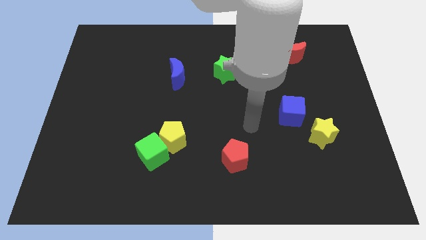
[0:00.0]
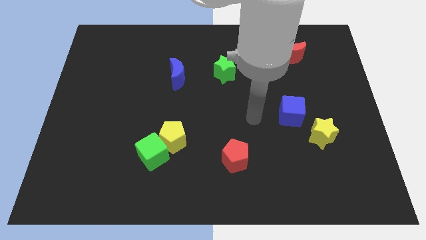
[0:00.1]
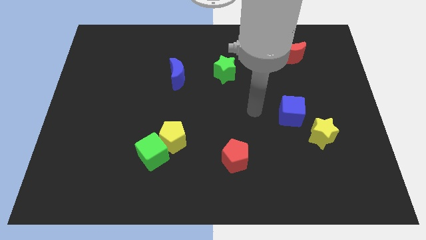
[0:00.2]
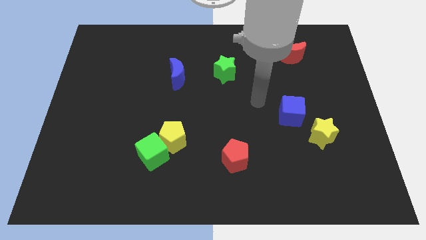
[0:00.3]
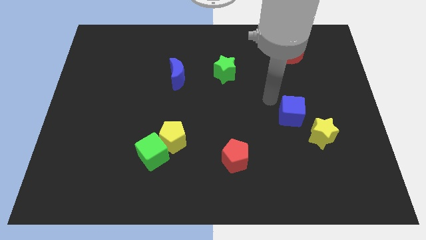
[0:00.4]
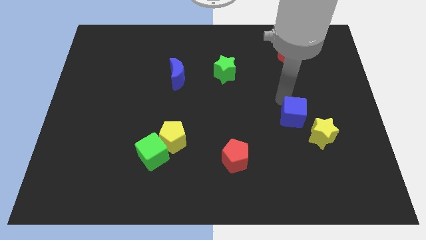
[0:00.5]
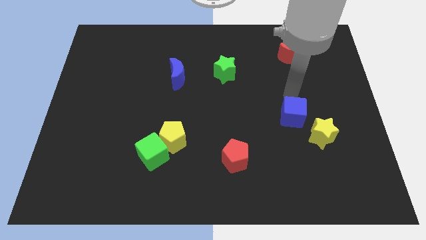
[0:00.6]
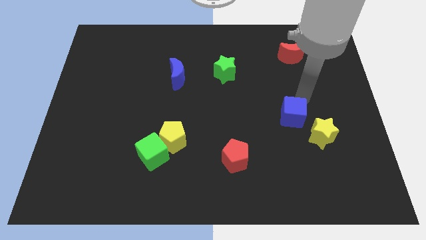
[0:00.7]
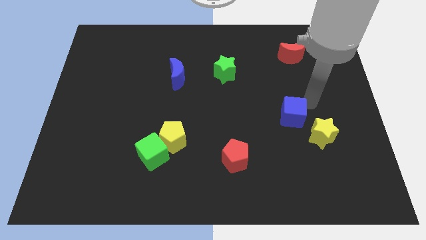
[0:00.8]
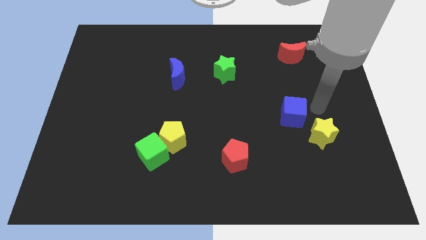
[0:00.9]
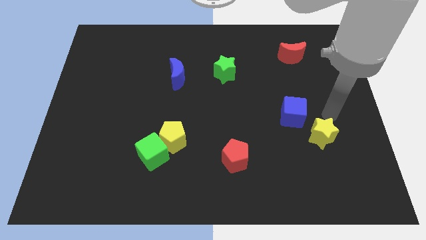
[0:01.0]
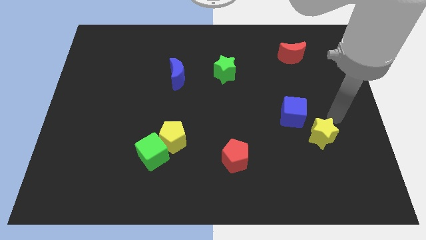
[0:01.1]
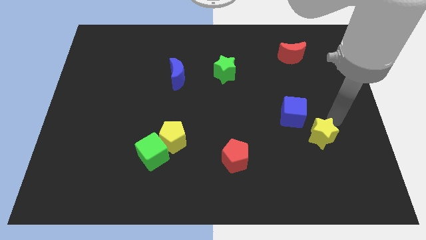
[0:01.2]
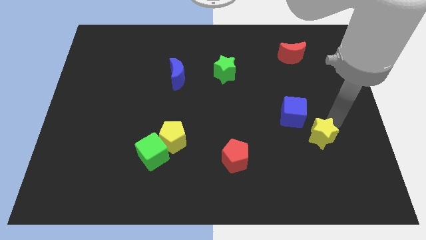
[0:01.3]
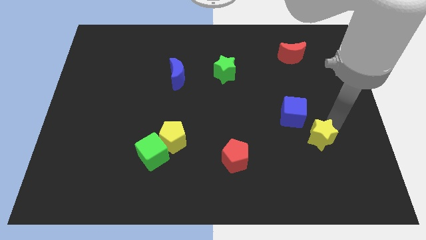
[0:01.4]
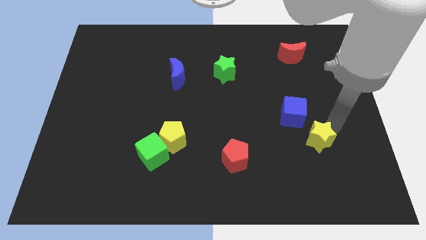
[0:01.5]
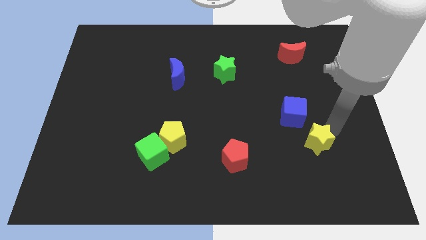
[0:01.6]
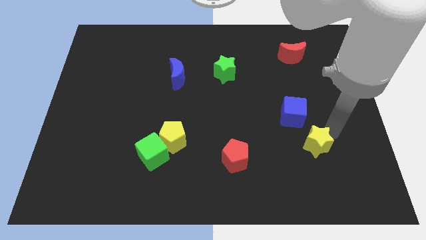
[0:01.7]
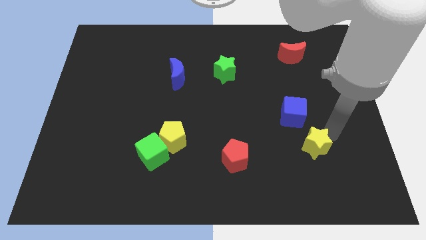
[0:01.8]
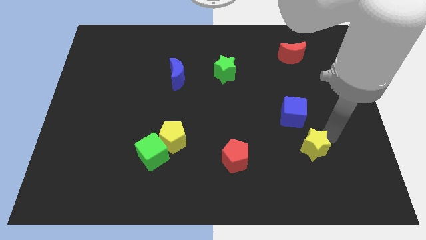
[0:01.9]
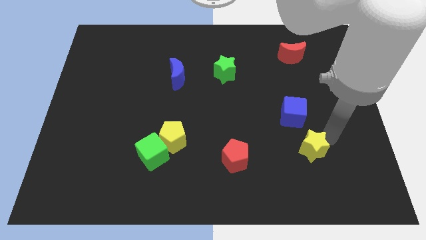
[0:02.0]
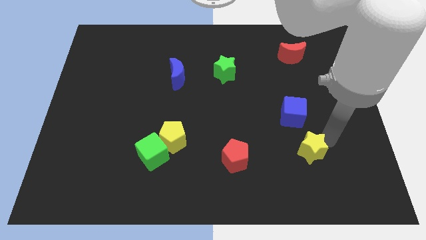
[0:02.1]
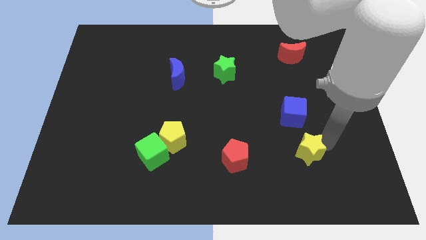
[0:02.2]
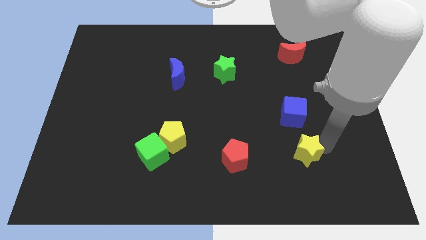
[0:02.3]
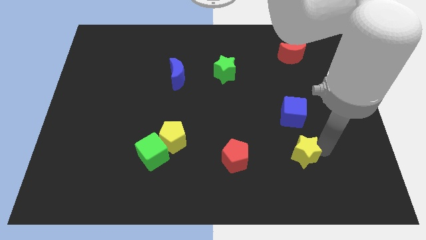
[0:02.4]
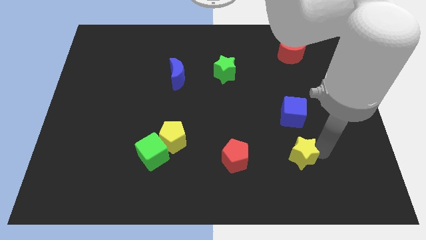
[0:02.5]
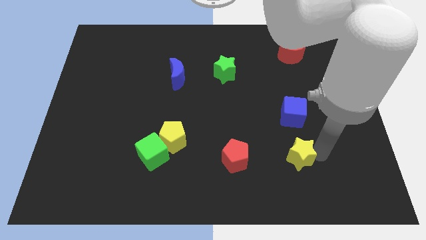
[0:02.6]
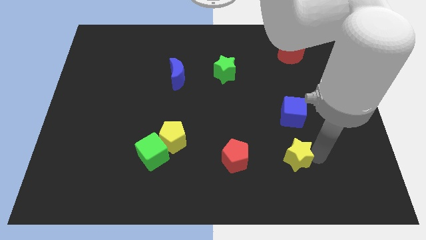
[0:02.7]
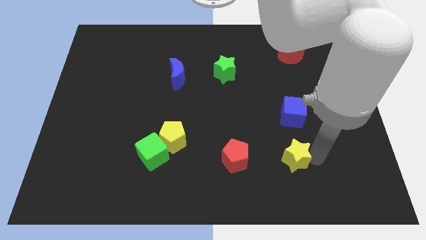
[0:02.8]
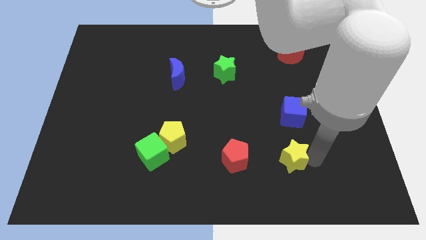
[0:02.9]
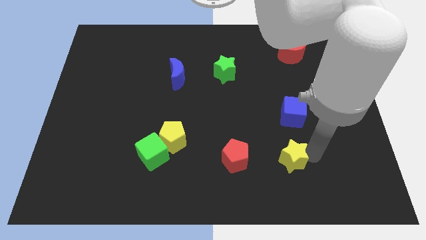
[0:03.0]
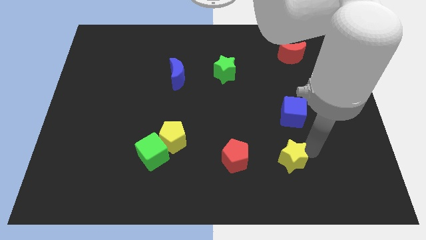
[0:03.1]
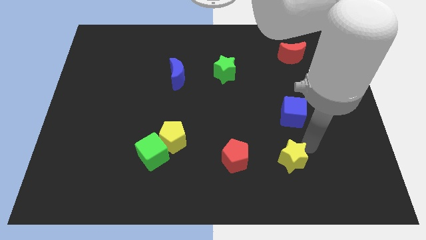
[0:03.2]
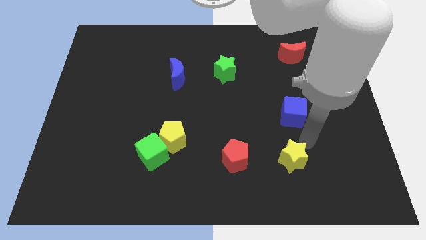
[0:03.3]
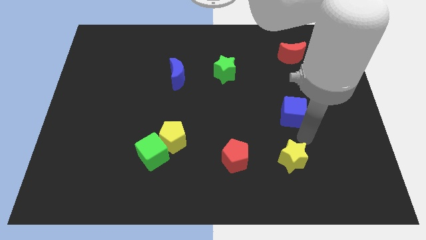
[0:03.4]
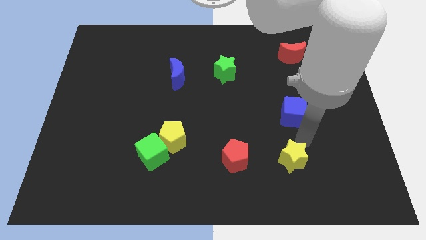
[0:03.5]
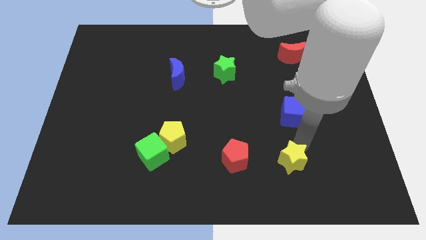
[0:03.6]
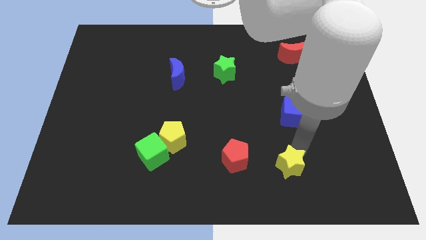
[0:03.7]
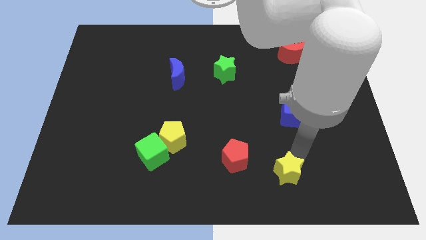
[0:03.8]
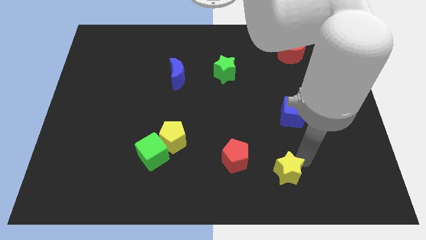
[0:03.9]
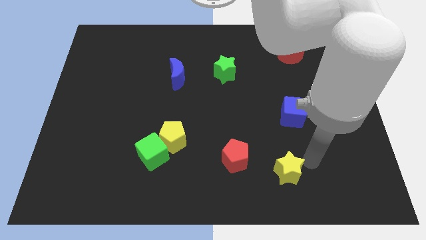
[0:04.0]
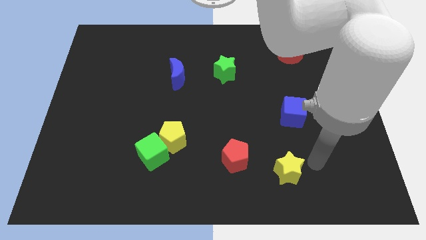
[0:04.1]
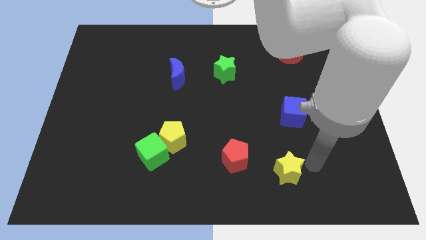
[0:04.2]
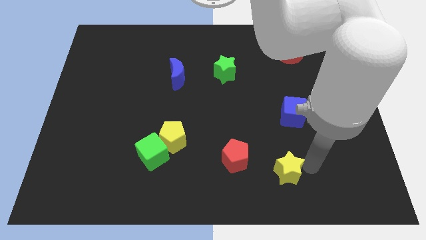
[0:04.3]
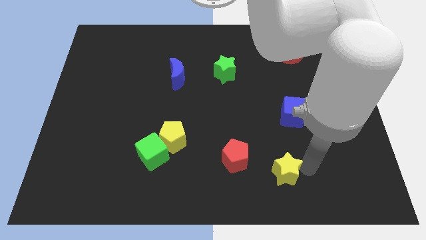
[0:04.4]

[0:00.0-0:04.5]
slide the yellow star to the bottom right side of the red pentagon

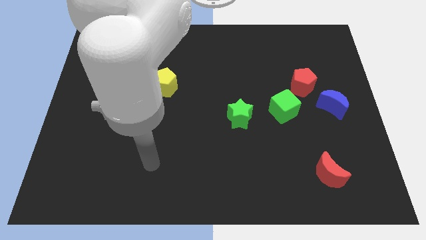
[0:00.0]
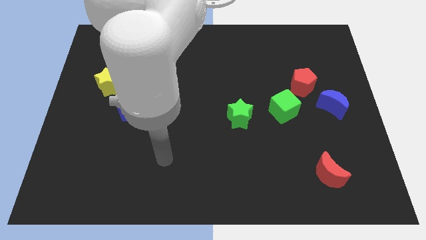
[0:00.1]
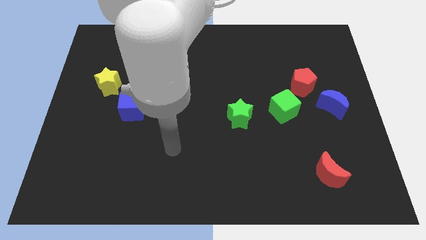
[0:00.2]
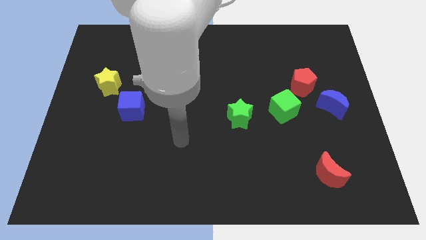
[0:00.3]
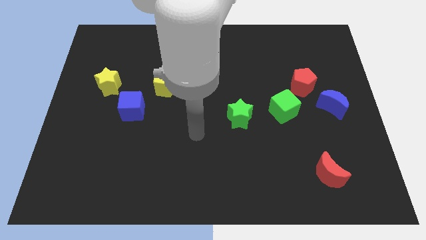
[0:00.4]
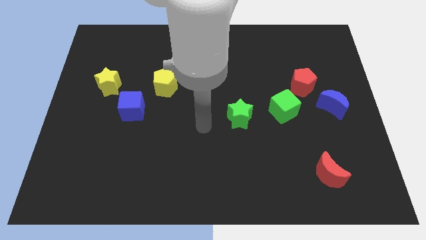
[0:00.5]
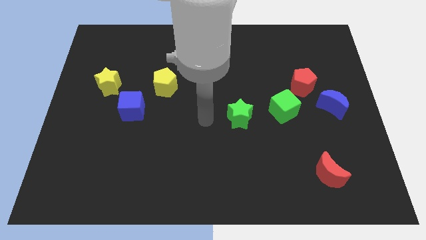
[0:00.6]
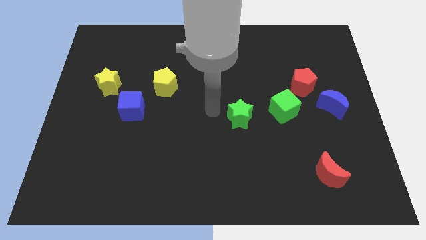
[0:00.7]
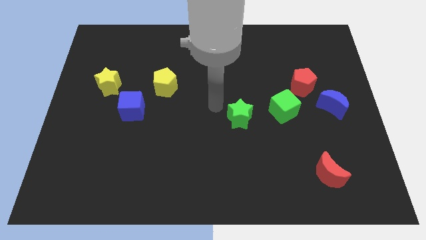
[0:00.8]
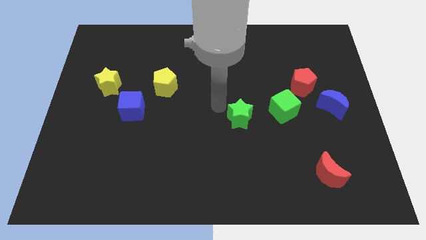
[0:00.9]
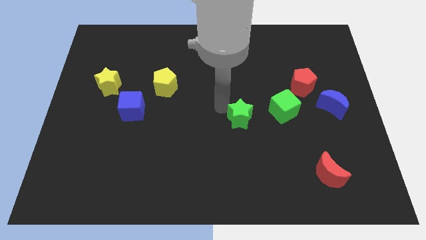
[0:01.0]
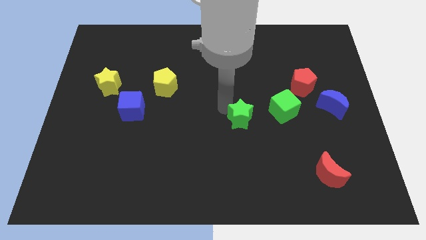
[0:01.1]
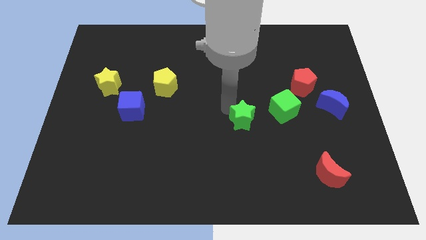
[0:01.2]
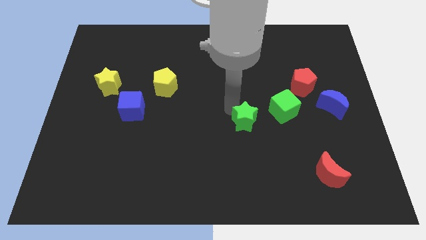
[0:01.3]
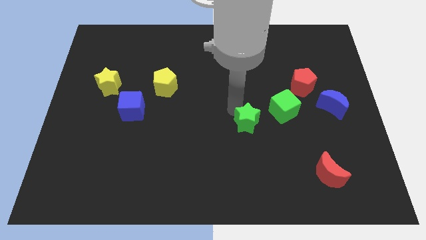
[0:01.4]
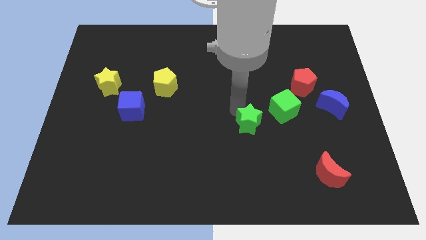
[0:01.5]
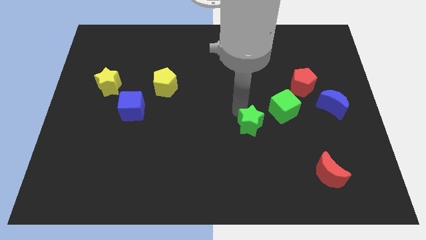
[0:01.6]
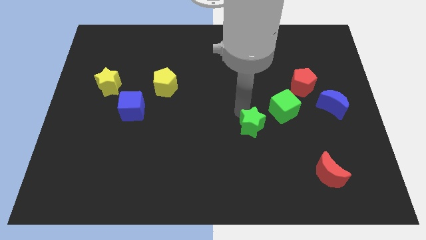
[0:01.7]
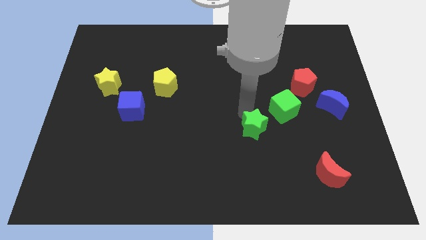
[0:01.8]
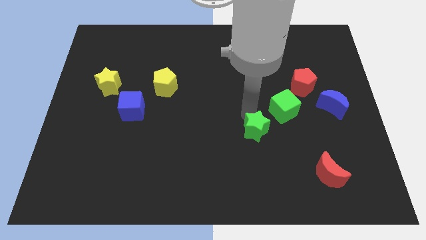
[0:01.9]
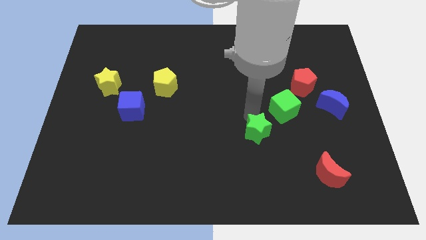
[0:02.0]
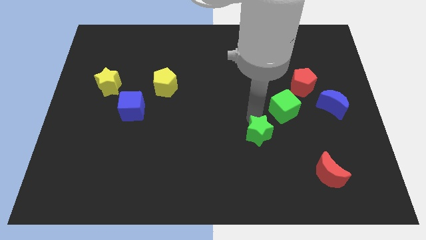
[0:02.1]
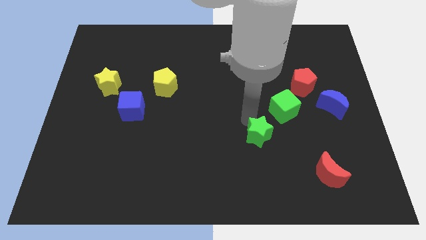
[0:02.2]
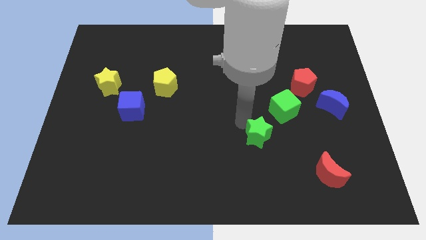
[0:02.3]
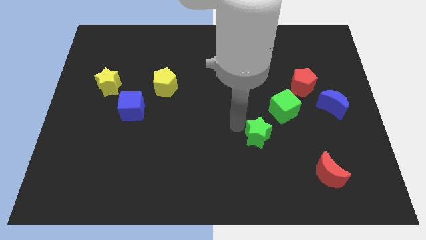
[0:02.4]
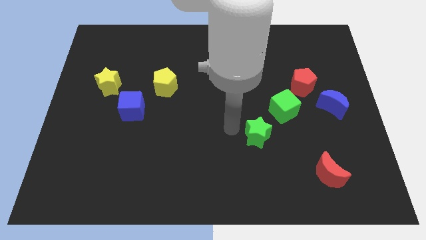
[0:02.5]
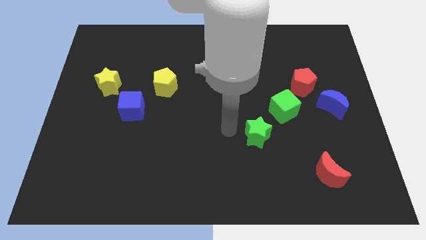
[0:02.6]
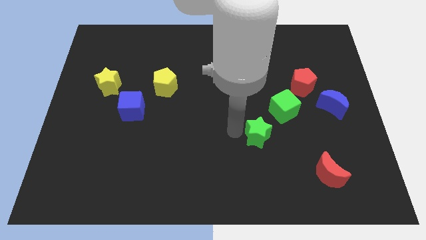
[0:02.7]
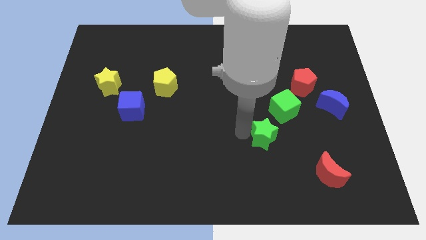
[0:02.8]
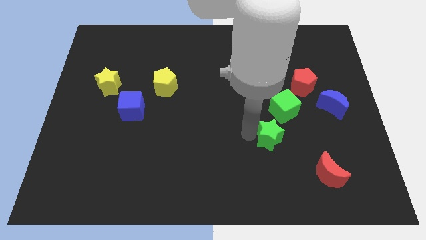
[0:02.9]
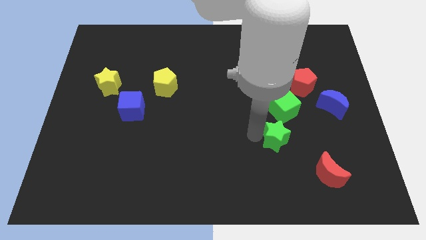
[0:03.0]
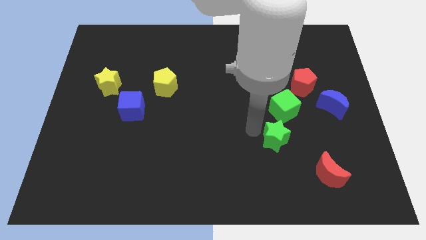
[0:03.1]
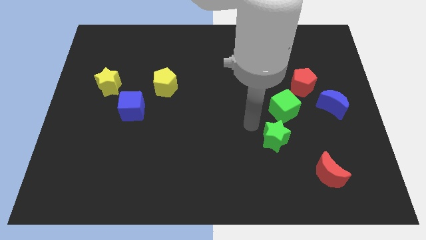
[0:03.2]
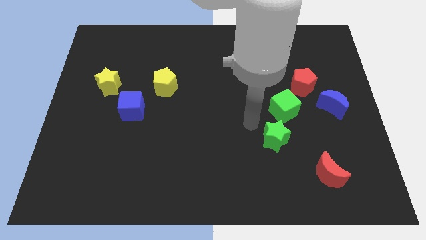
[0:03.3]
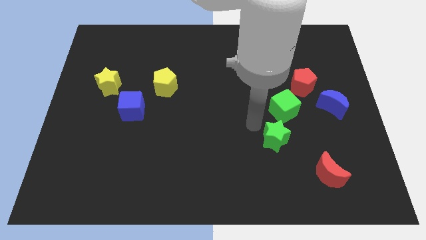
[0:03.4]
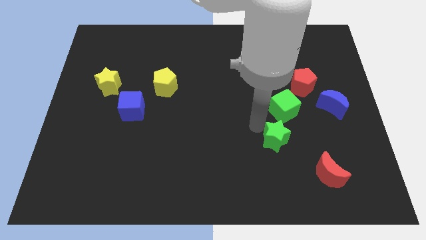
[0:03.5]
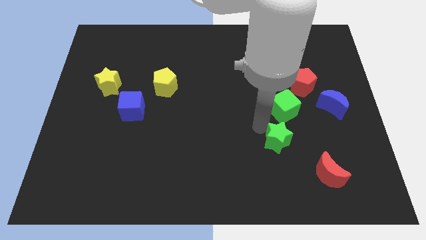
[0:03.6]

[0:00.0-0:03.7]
push the green star to the top left of the red moon
